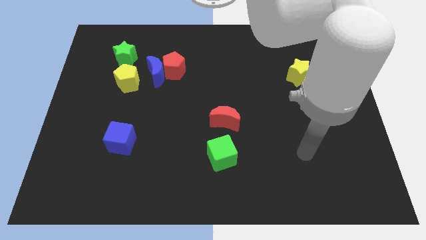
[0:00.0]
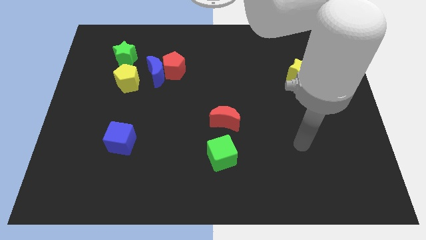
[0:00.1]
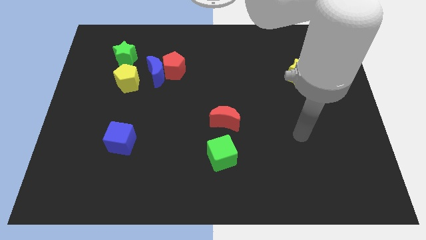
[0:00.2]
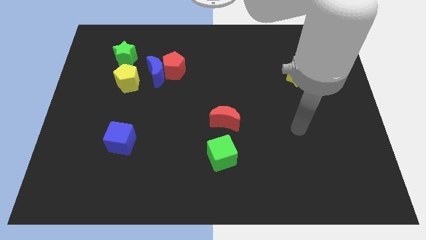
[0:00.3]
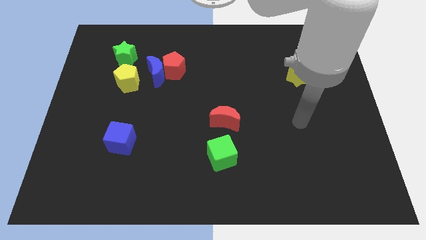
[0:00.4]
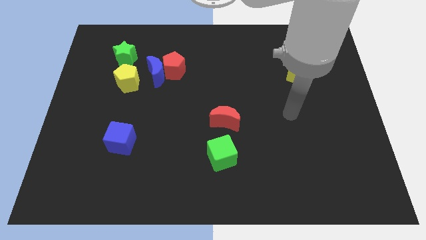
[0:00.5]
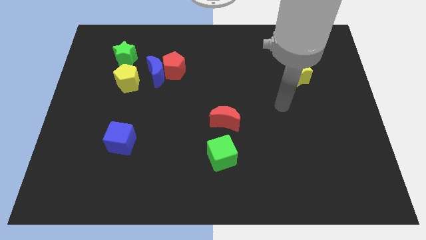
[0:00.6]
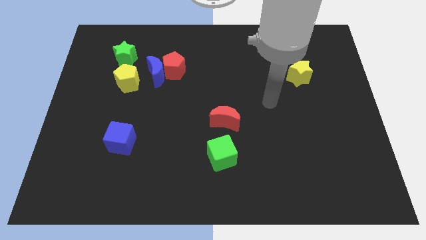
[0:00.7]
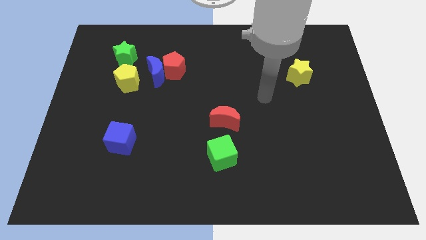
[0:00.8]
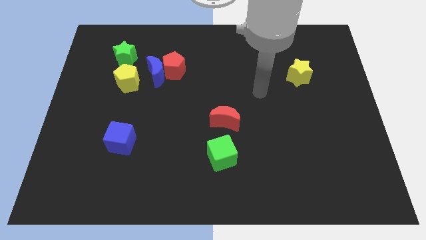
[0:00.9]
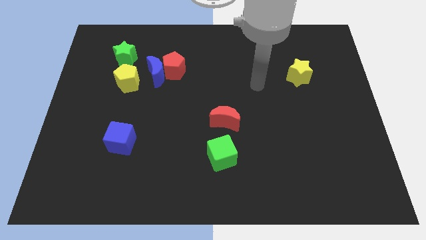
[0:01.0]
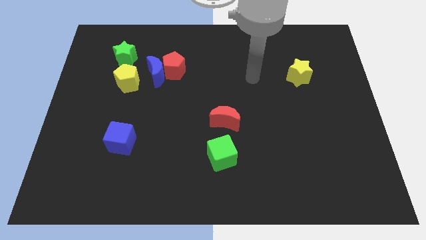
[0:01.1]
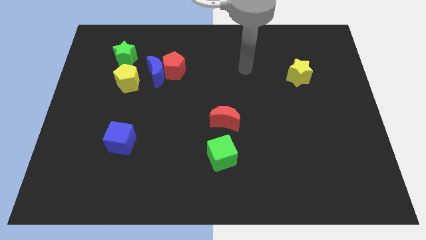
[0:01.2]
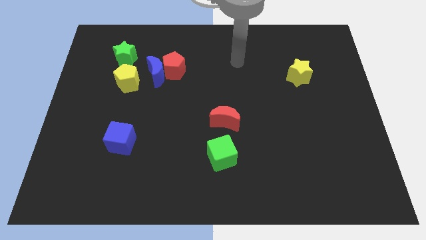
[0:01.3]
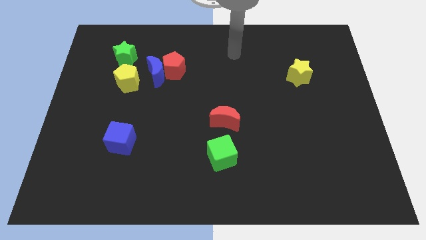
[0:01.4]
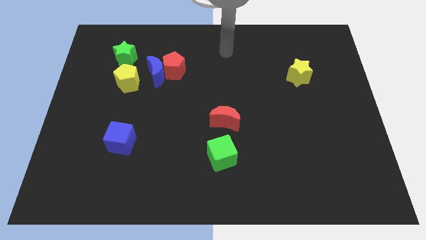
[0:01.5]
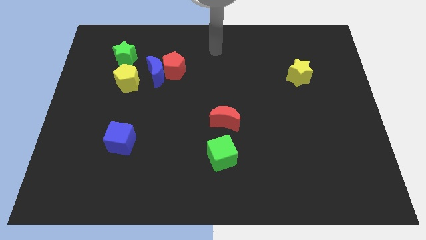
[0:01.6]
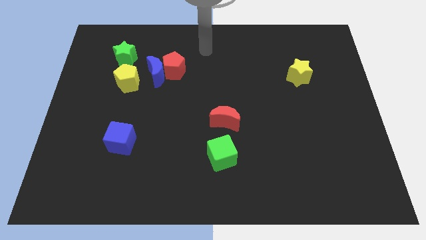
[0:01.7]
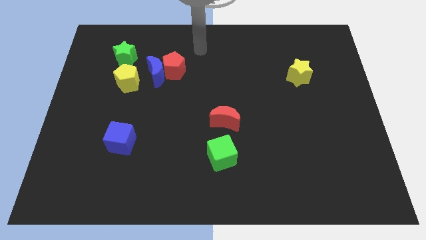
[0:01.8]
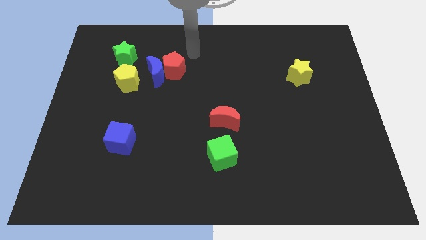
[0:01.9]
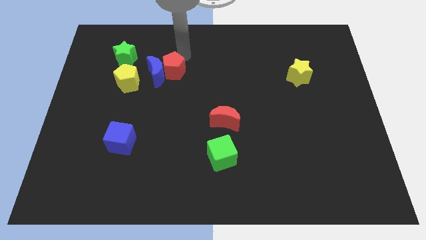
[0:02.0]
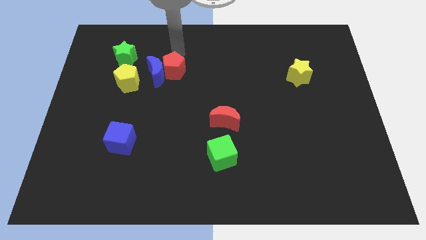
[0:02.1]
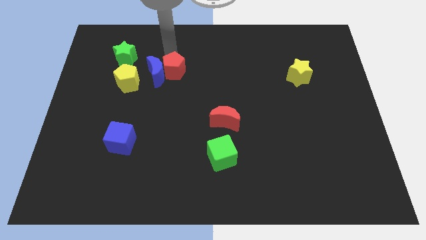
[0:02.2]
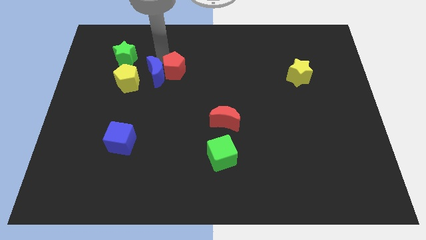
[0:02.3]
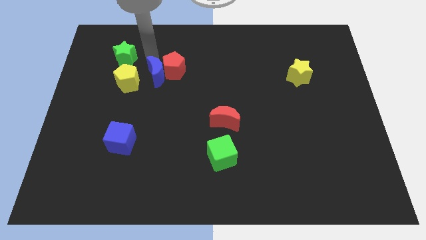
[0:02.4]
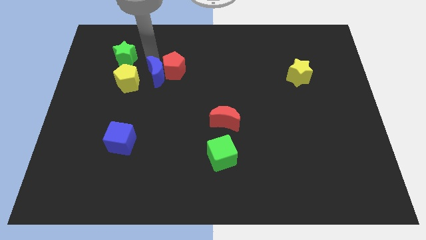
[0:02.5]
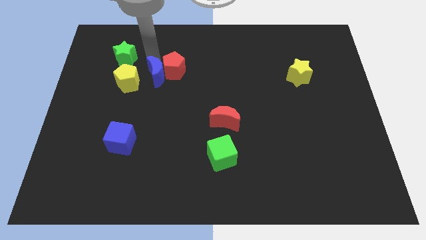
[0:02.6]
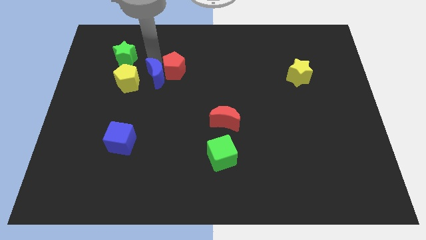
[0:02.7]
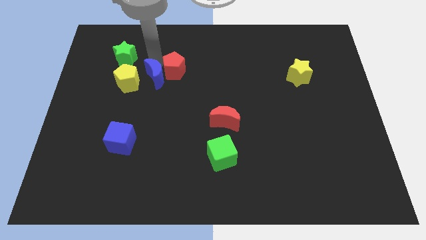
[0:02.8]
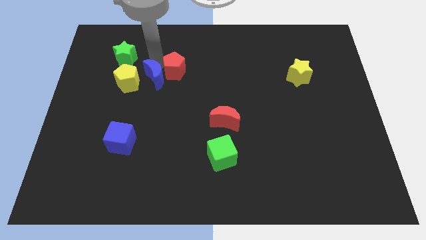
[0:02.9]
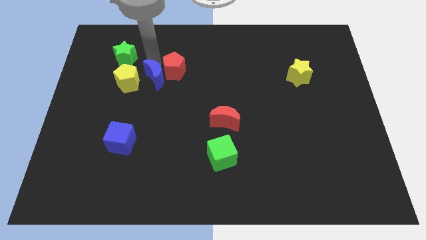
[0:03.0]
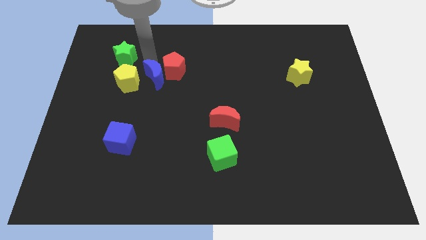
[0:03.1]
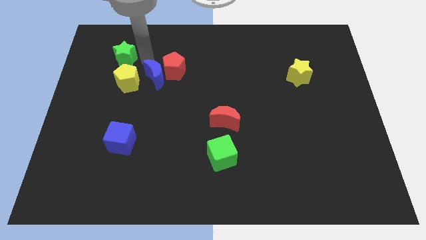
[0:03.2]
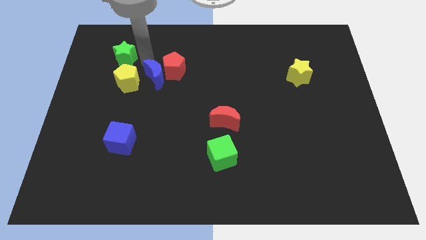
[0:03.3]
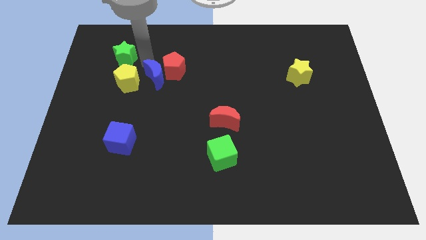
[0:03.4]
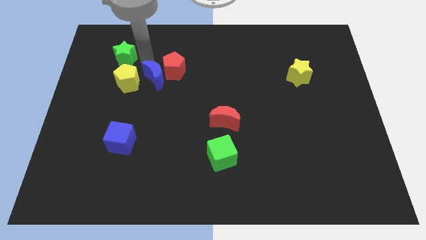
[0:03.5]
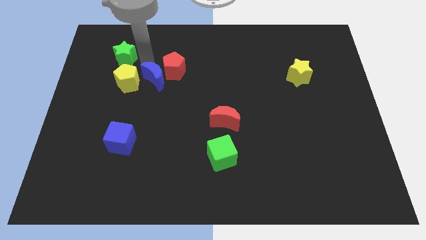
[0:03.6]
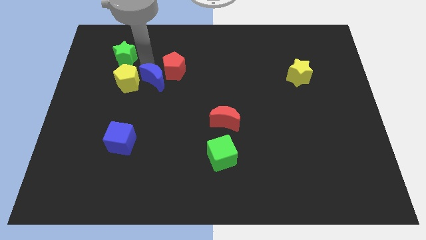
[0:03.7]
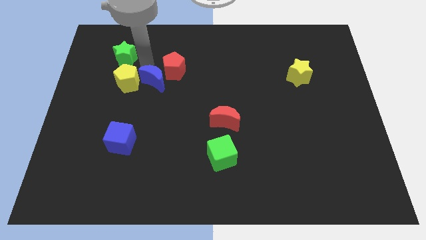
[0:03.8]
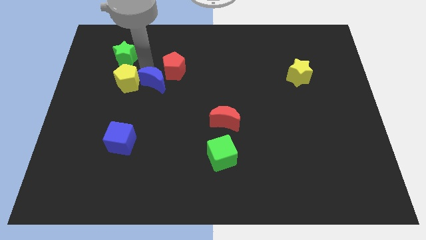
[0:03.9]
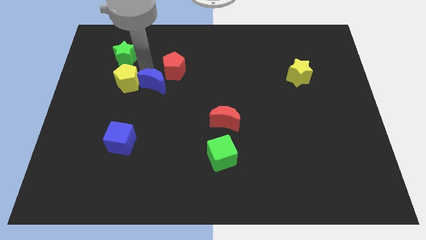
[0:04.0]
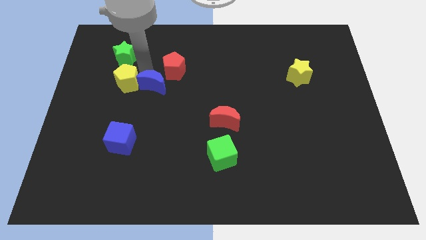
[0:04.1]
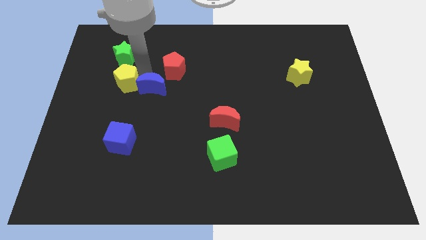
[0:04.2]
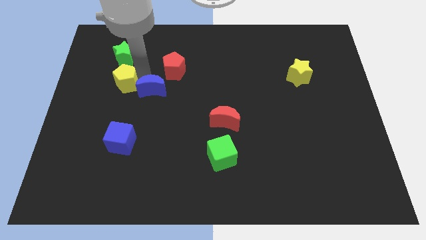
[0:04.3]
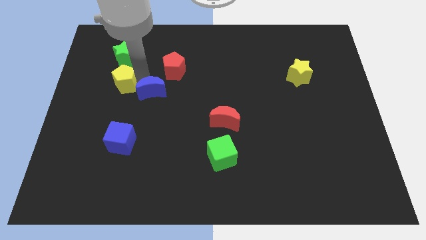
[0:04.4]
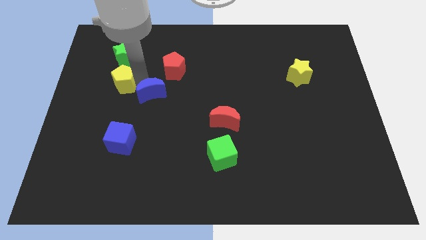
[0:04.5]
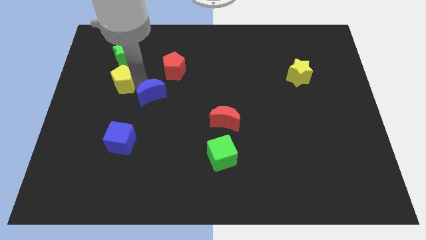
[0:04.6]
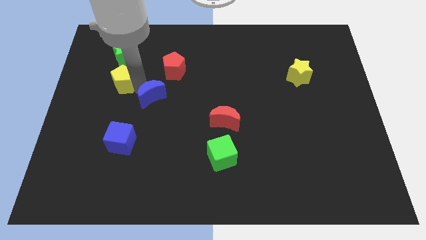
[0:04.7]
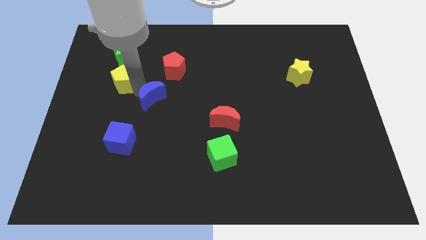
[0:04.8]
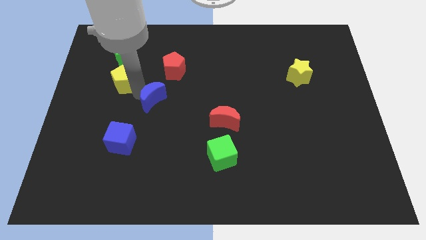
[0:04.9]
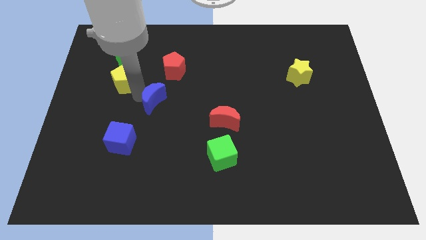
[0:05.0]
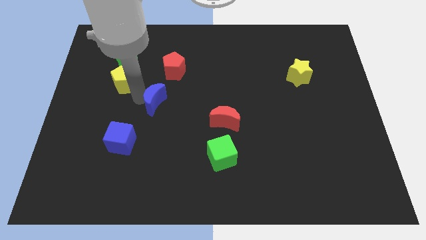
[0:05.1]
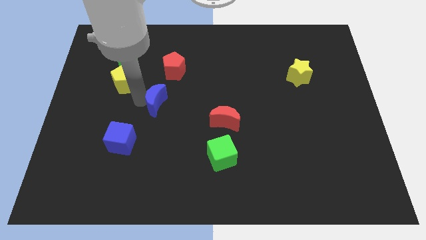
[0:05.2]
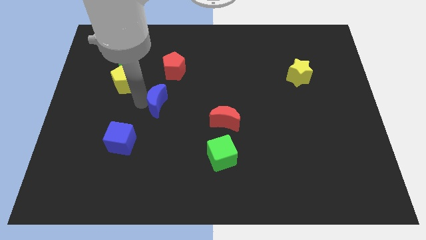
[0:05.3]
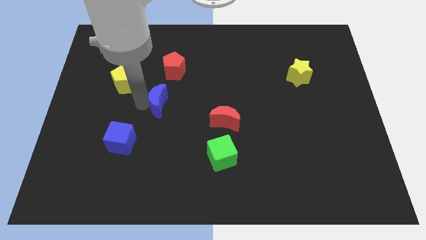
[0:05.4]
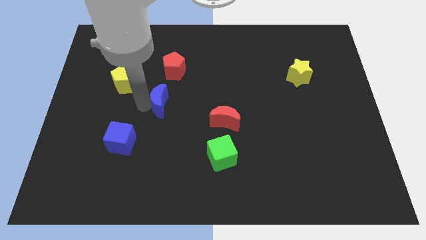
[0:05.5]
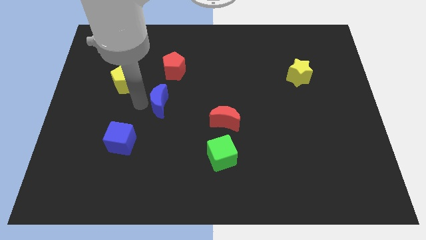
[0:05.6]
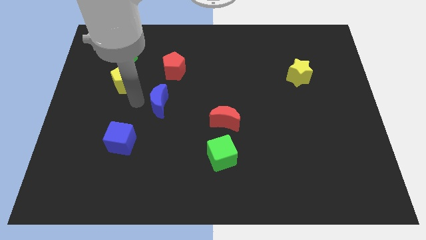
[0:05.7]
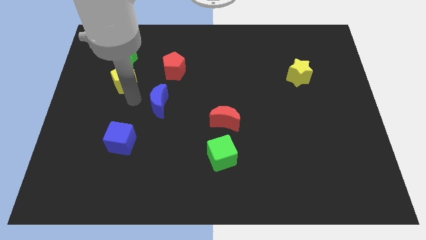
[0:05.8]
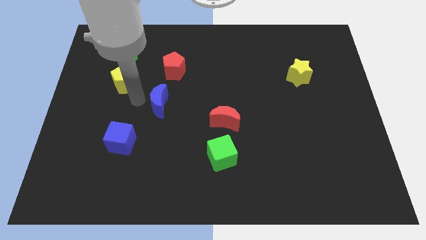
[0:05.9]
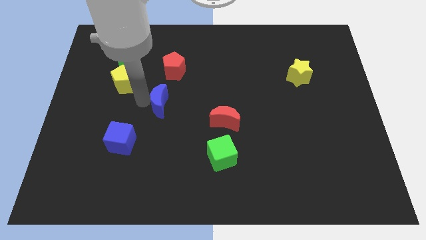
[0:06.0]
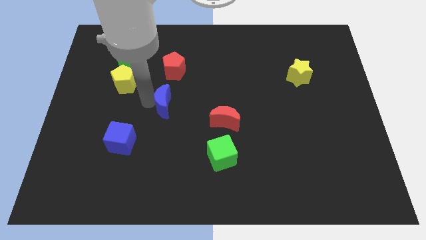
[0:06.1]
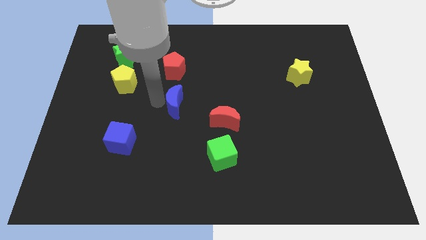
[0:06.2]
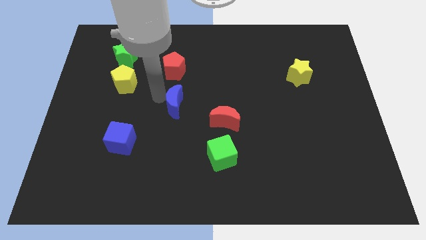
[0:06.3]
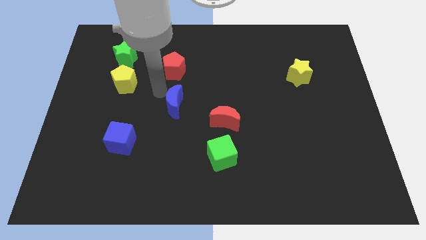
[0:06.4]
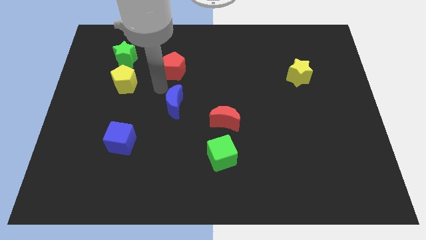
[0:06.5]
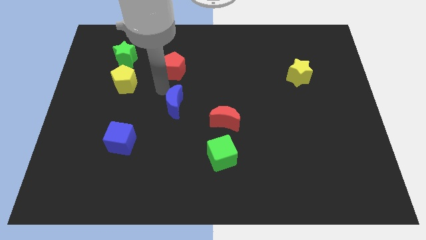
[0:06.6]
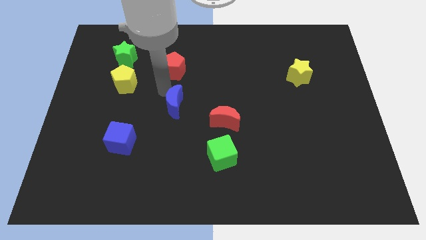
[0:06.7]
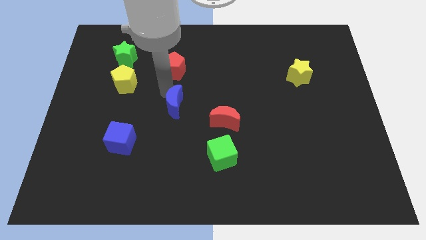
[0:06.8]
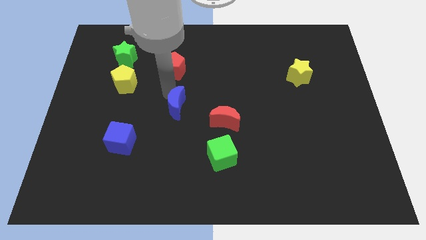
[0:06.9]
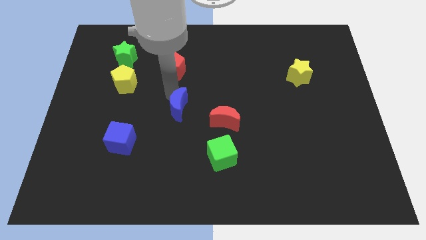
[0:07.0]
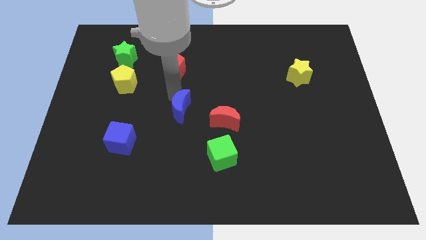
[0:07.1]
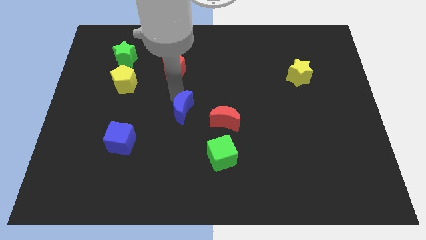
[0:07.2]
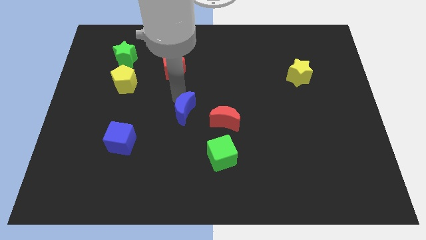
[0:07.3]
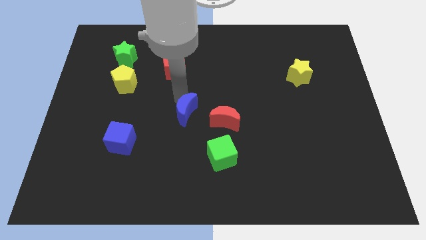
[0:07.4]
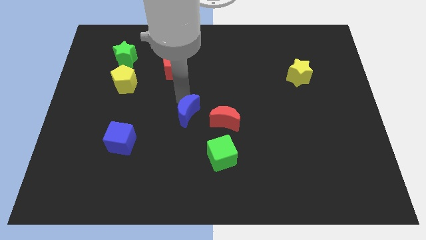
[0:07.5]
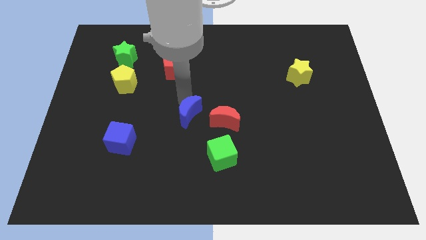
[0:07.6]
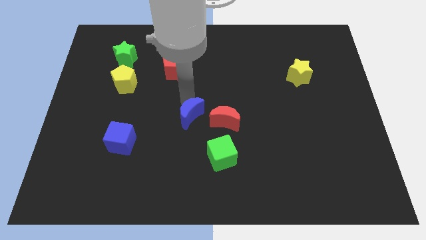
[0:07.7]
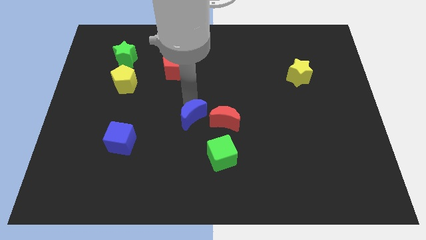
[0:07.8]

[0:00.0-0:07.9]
slide the blue moon to the top left of the green cube
